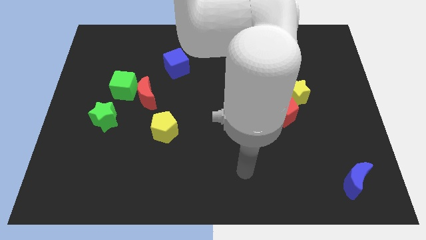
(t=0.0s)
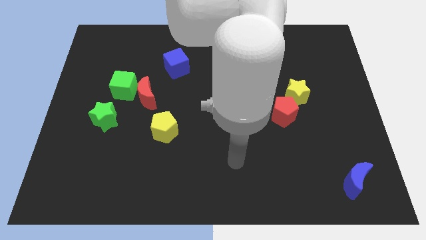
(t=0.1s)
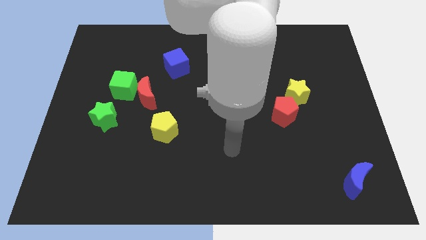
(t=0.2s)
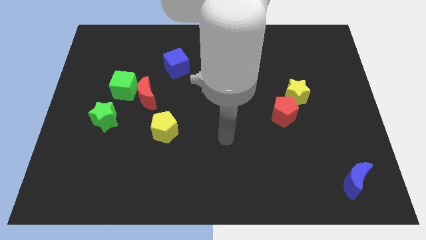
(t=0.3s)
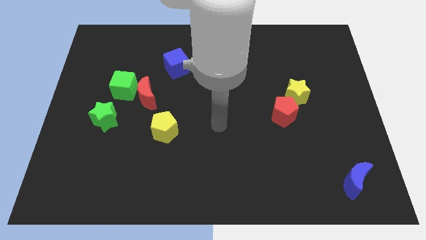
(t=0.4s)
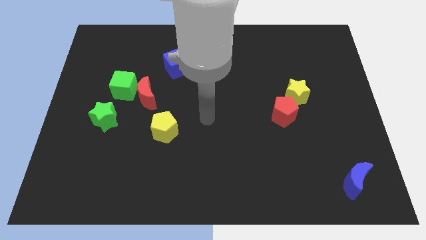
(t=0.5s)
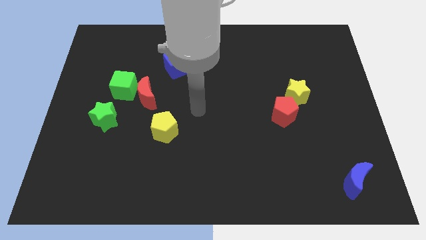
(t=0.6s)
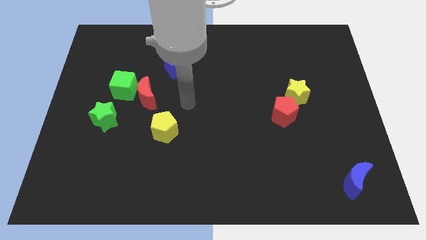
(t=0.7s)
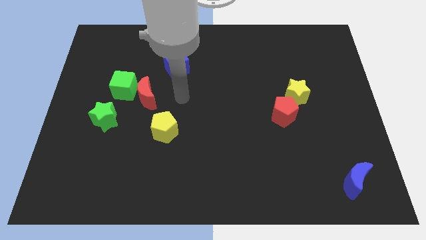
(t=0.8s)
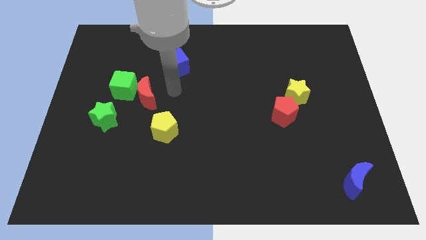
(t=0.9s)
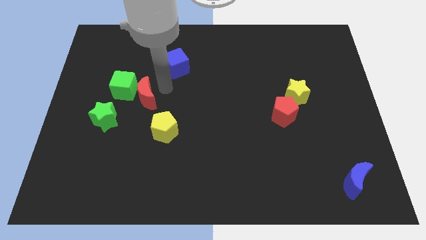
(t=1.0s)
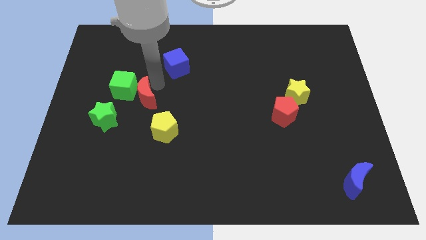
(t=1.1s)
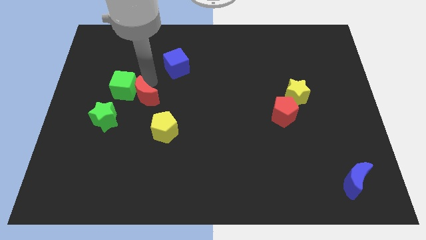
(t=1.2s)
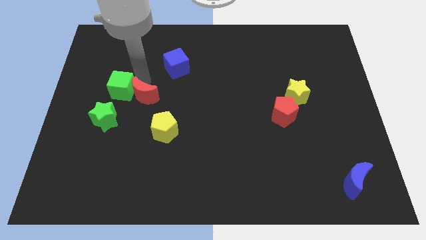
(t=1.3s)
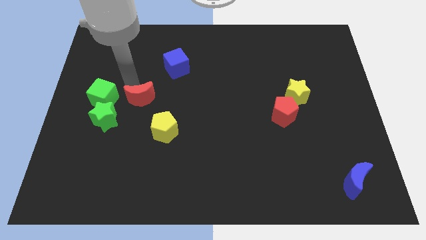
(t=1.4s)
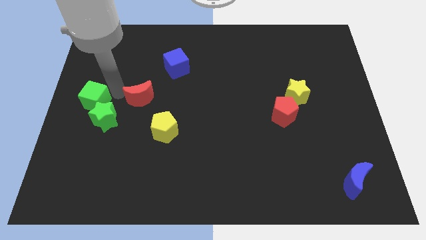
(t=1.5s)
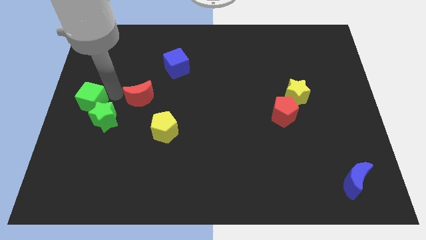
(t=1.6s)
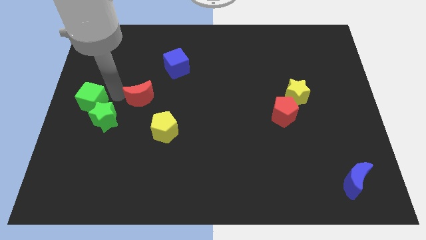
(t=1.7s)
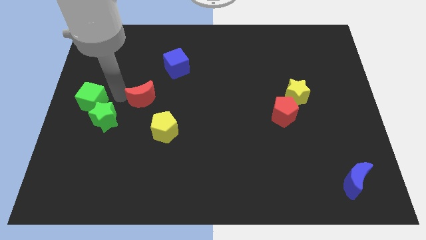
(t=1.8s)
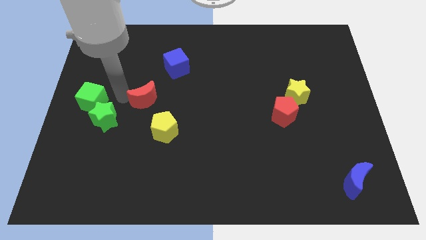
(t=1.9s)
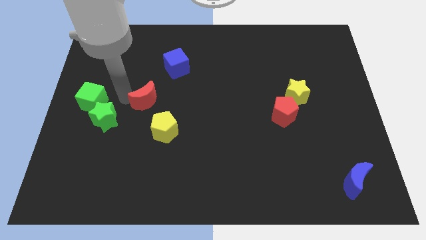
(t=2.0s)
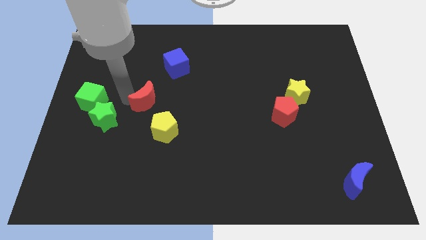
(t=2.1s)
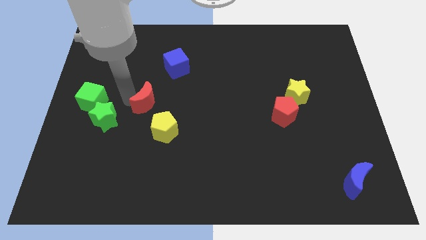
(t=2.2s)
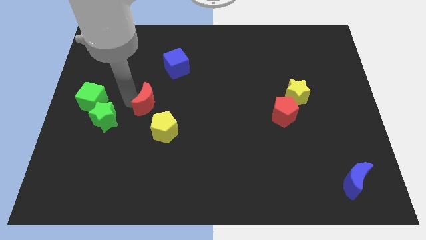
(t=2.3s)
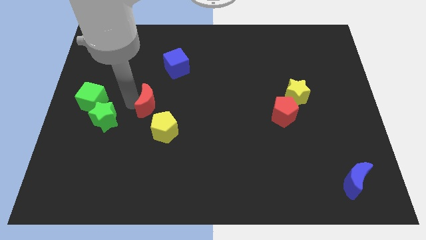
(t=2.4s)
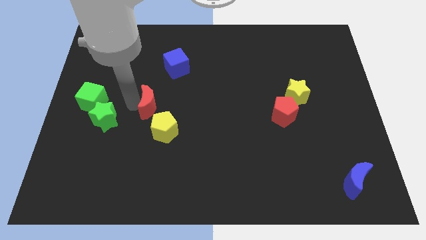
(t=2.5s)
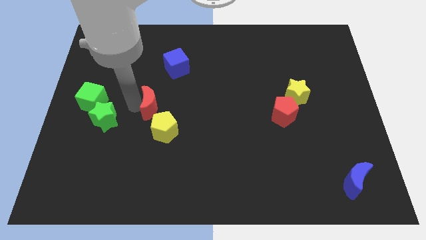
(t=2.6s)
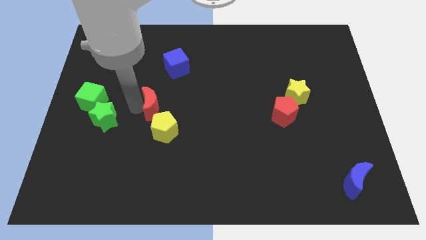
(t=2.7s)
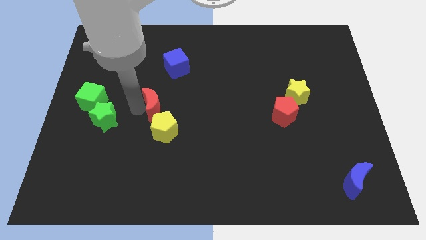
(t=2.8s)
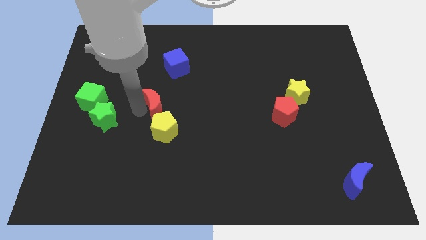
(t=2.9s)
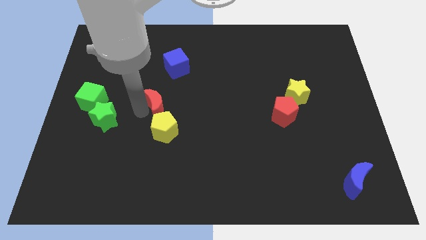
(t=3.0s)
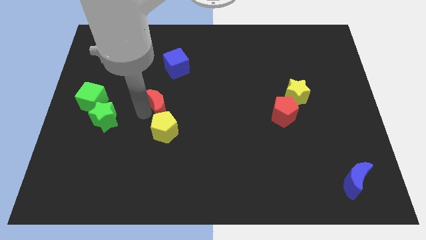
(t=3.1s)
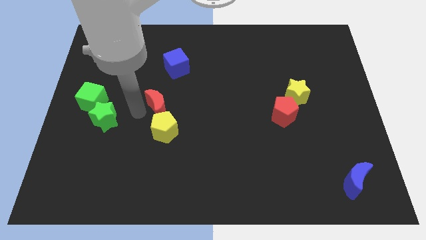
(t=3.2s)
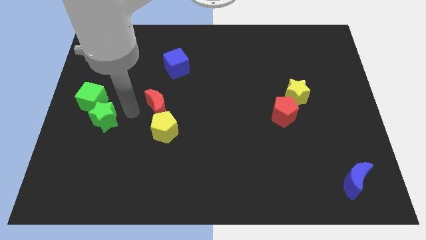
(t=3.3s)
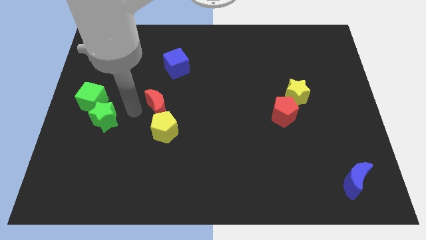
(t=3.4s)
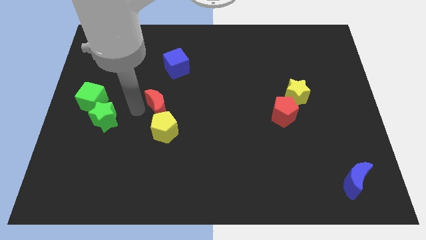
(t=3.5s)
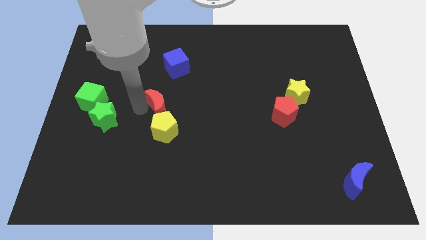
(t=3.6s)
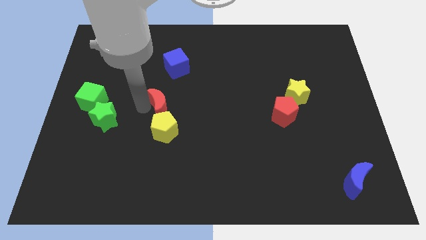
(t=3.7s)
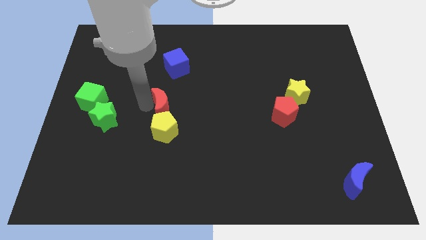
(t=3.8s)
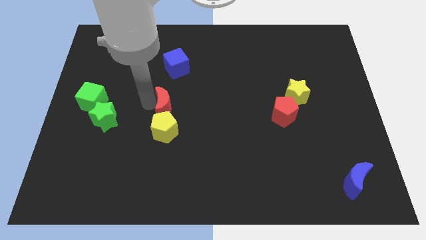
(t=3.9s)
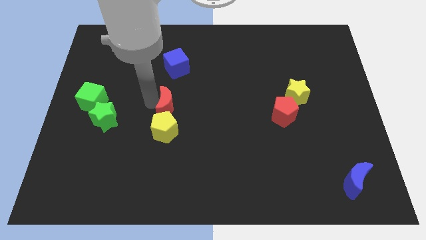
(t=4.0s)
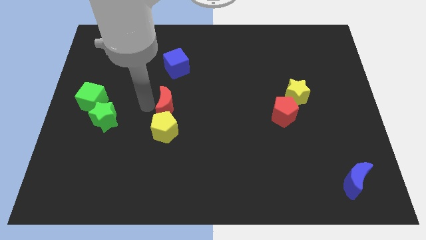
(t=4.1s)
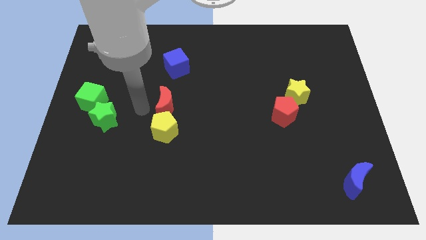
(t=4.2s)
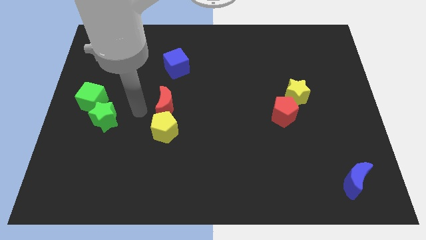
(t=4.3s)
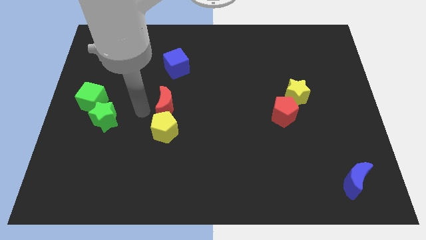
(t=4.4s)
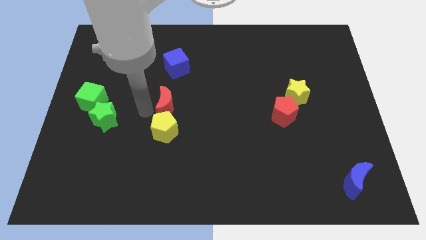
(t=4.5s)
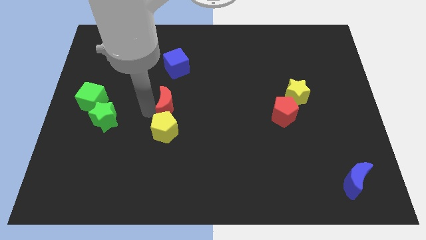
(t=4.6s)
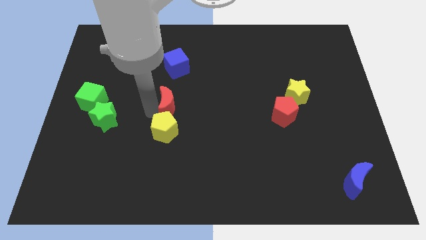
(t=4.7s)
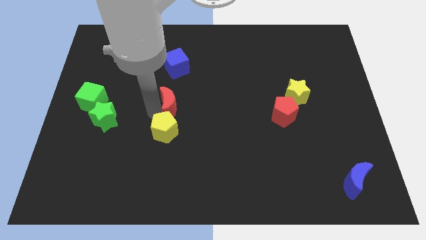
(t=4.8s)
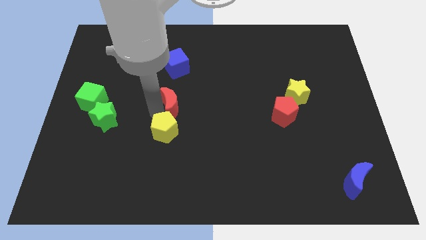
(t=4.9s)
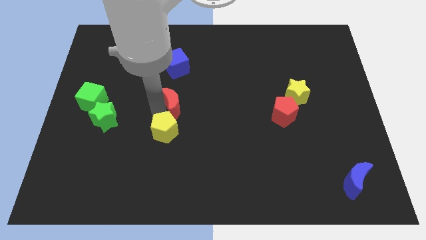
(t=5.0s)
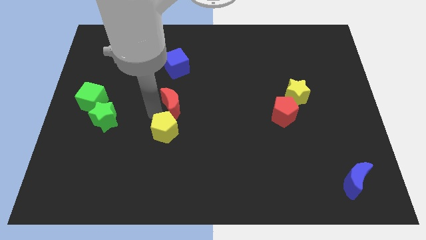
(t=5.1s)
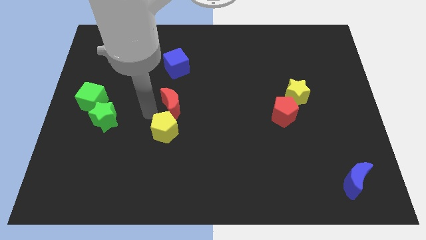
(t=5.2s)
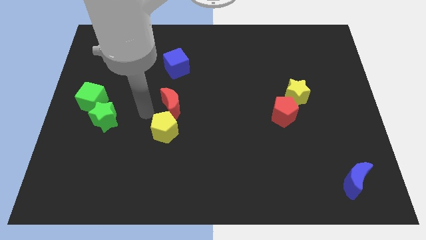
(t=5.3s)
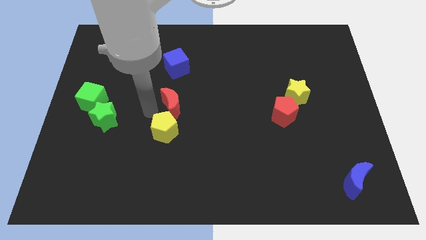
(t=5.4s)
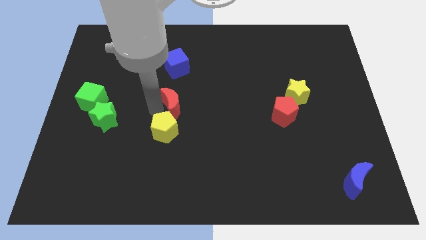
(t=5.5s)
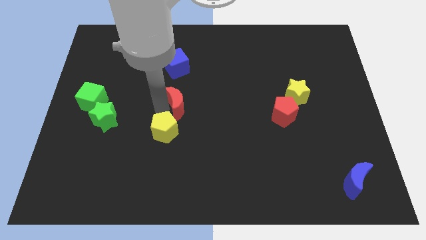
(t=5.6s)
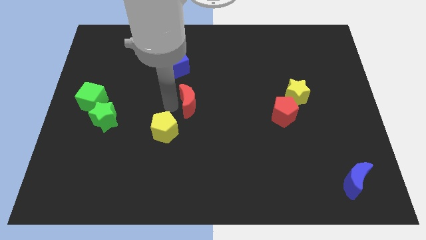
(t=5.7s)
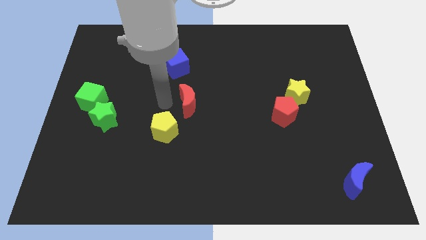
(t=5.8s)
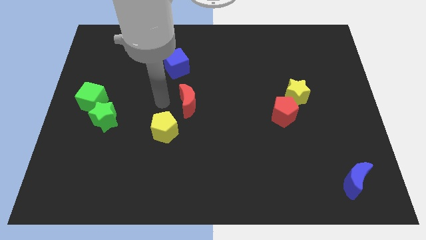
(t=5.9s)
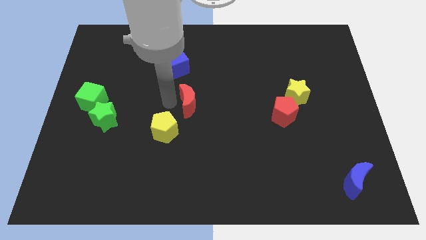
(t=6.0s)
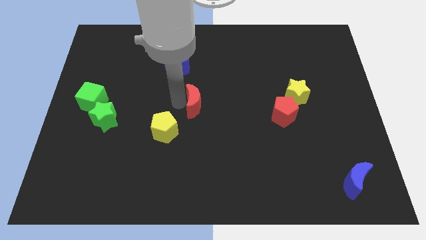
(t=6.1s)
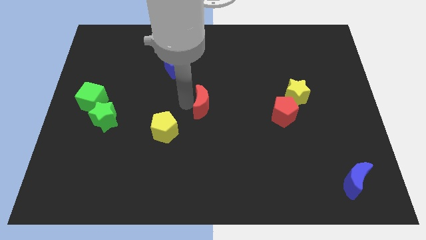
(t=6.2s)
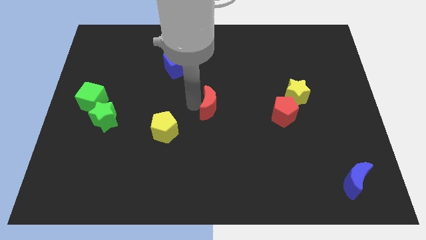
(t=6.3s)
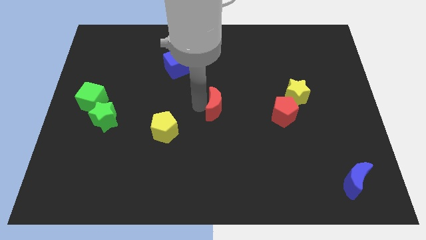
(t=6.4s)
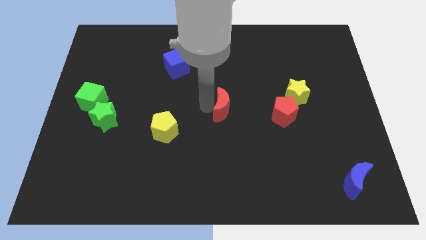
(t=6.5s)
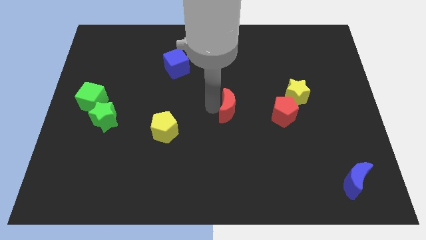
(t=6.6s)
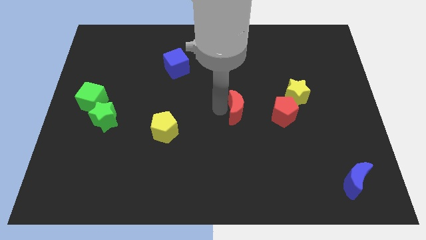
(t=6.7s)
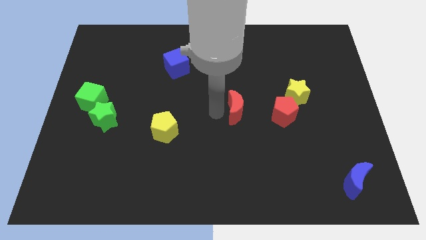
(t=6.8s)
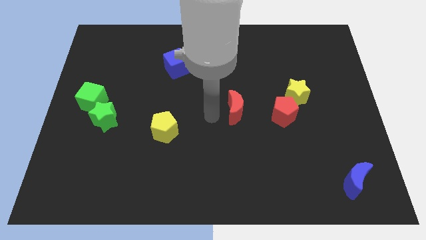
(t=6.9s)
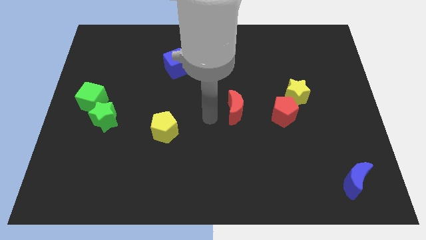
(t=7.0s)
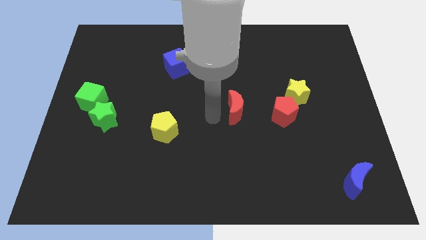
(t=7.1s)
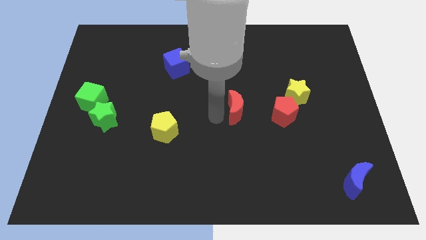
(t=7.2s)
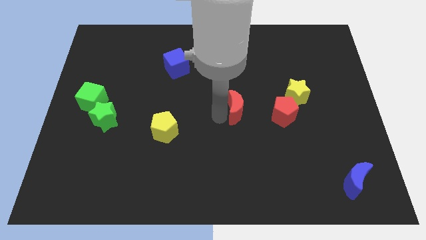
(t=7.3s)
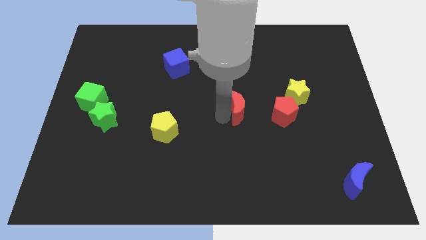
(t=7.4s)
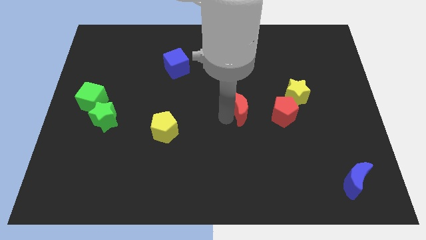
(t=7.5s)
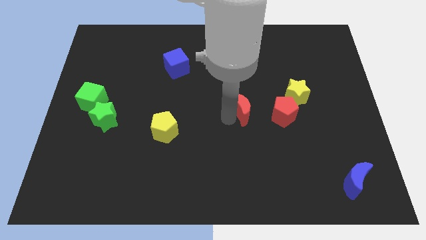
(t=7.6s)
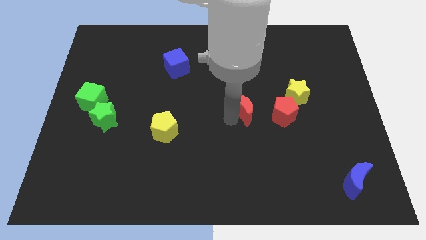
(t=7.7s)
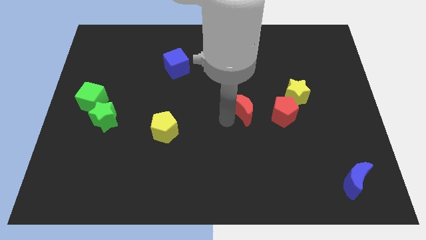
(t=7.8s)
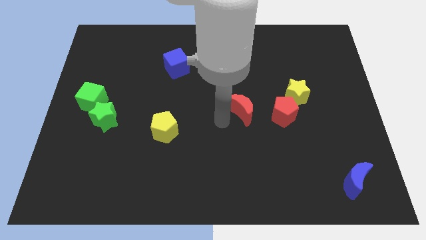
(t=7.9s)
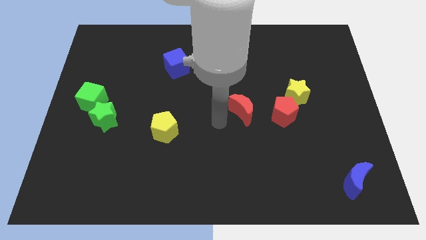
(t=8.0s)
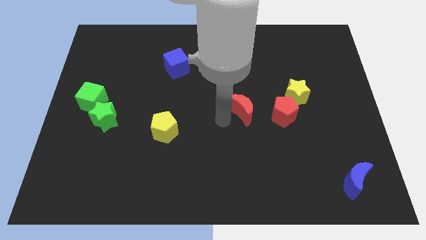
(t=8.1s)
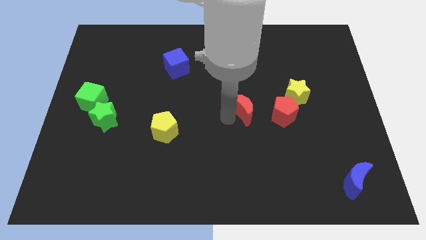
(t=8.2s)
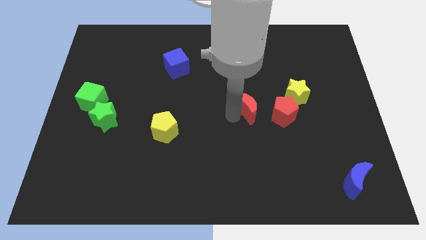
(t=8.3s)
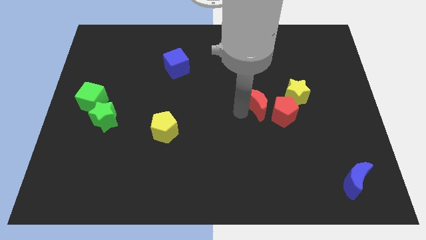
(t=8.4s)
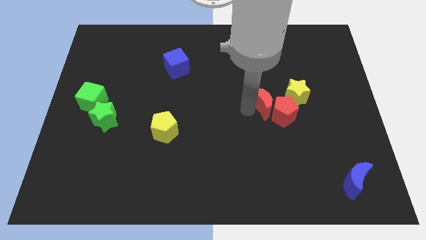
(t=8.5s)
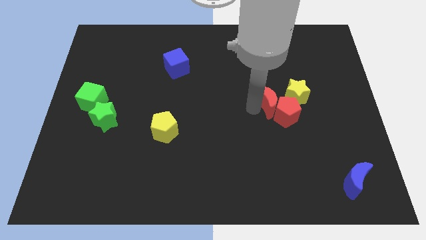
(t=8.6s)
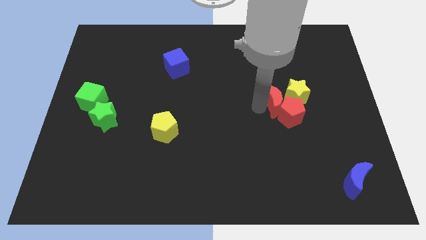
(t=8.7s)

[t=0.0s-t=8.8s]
move the red moon to the yellow star
